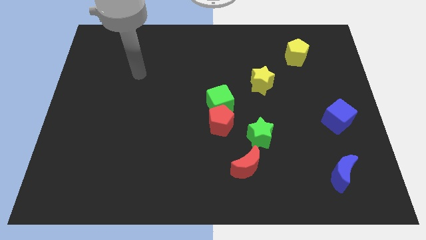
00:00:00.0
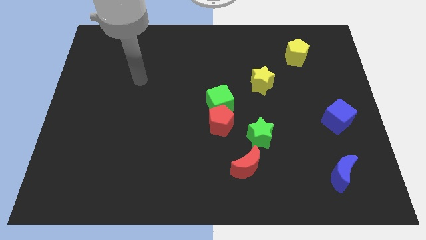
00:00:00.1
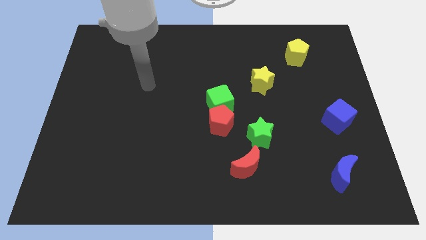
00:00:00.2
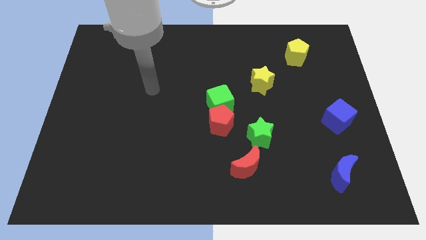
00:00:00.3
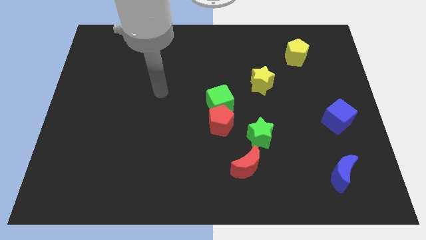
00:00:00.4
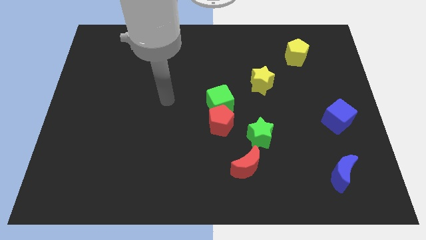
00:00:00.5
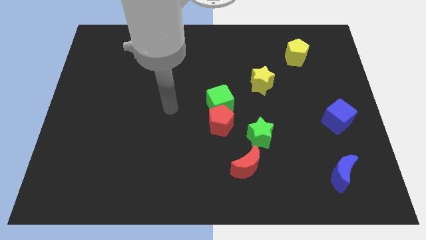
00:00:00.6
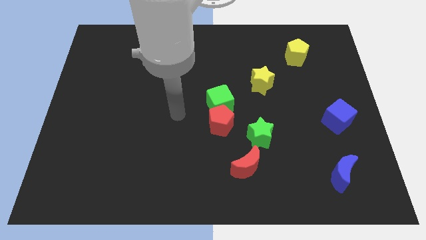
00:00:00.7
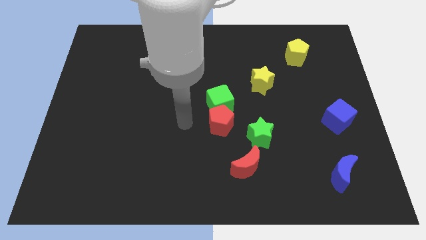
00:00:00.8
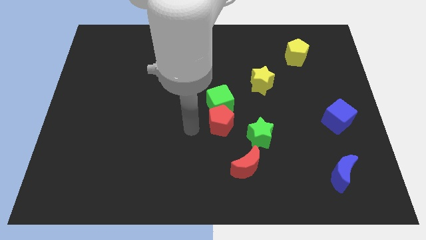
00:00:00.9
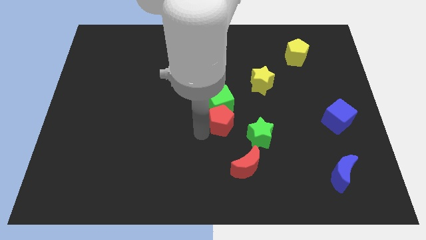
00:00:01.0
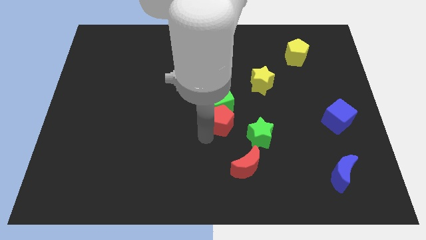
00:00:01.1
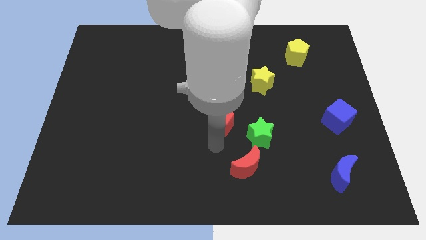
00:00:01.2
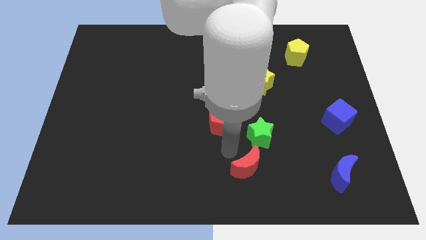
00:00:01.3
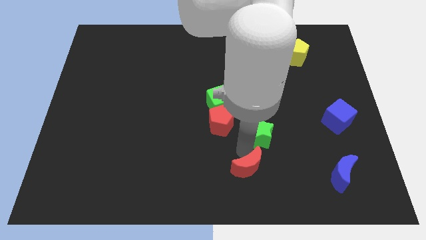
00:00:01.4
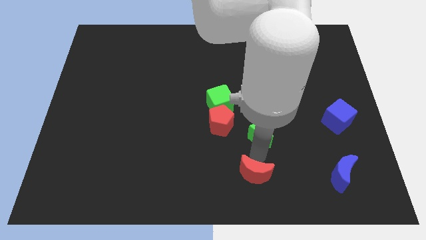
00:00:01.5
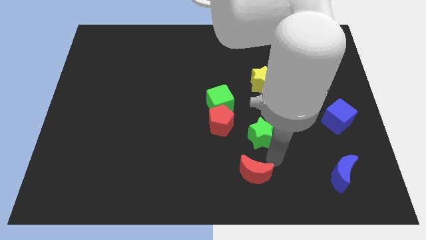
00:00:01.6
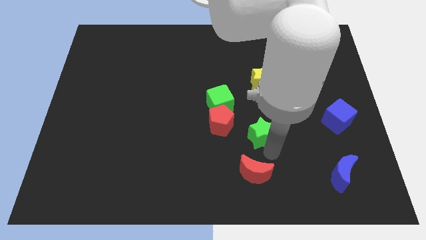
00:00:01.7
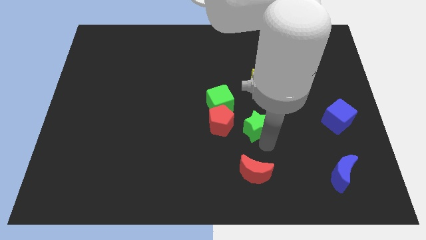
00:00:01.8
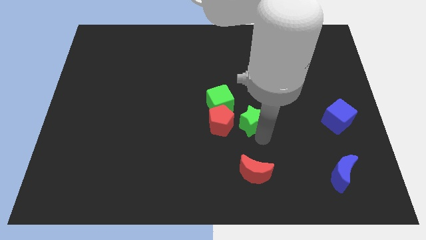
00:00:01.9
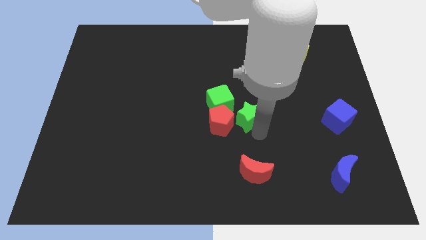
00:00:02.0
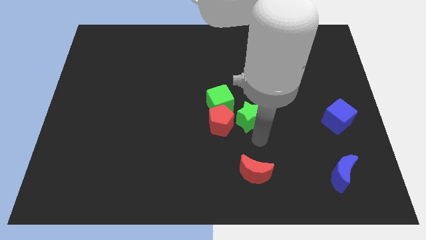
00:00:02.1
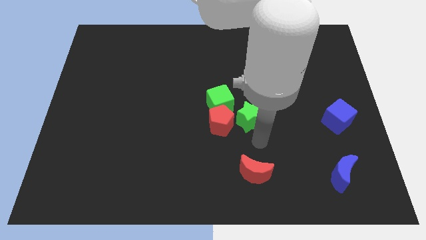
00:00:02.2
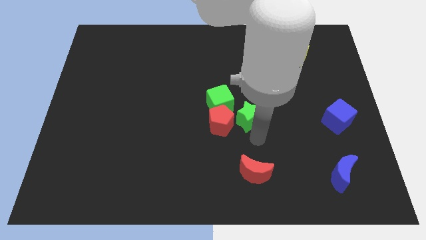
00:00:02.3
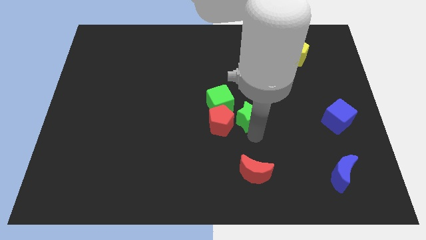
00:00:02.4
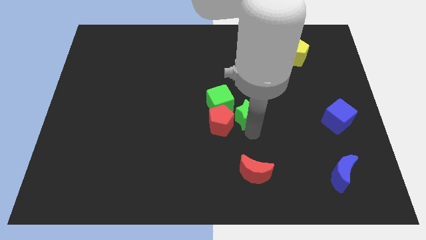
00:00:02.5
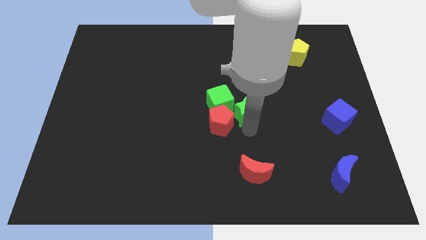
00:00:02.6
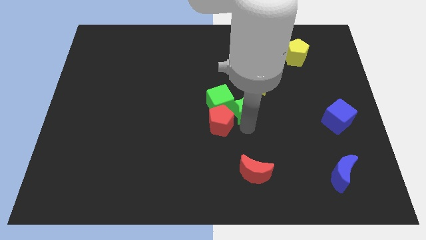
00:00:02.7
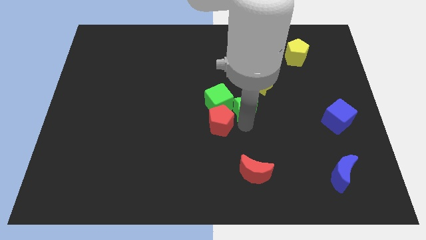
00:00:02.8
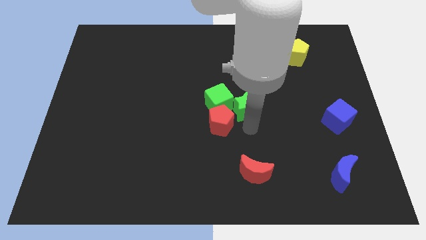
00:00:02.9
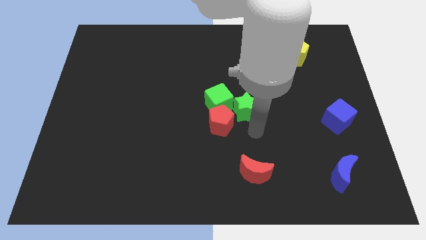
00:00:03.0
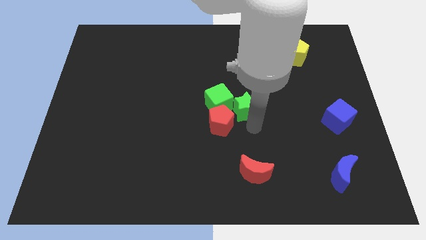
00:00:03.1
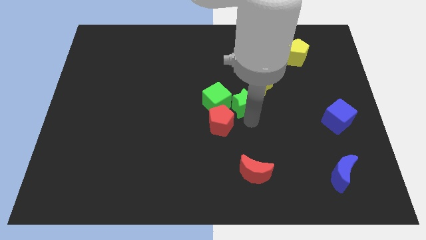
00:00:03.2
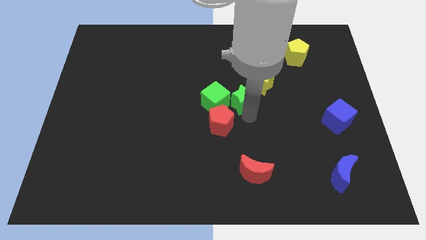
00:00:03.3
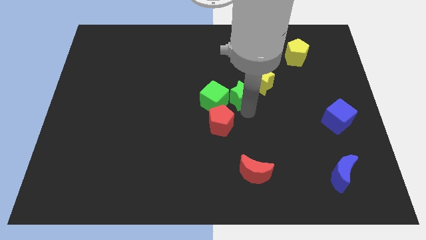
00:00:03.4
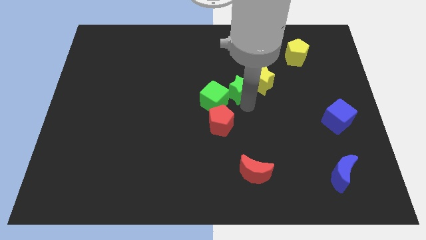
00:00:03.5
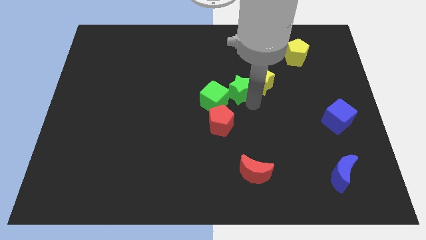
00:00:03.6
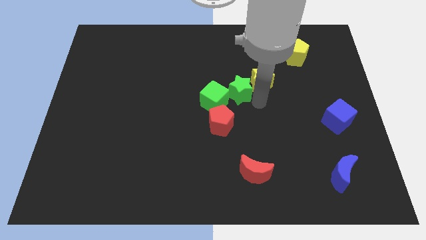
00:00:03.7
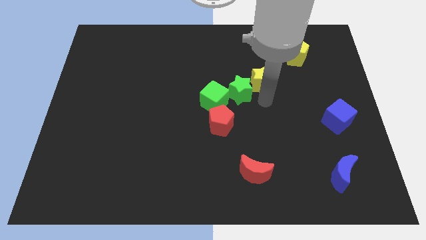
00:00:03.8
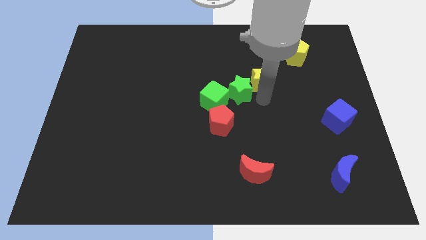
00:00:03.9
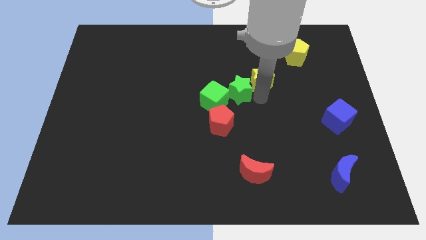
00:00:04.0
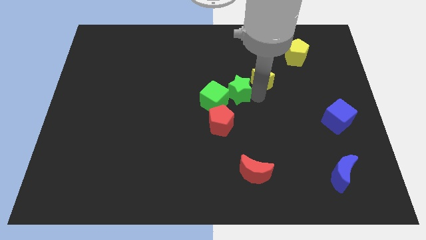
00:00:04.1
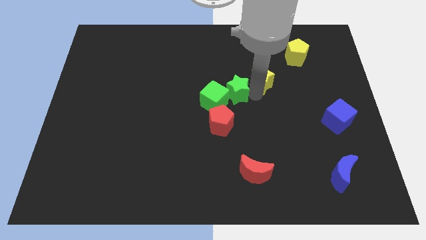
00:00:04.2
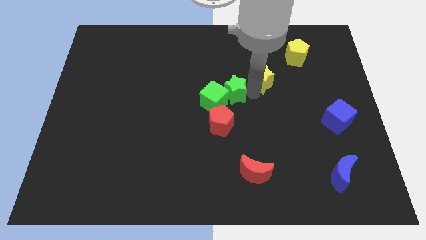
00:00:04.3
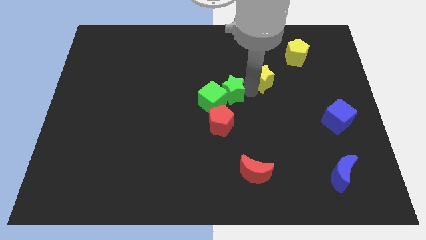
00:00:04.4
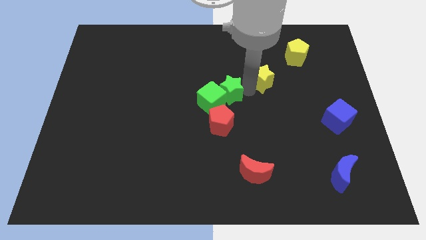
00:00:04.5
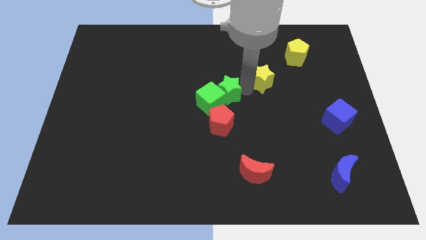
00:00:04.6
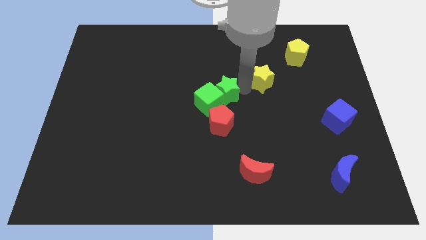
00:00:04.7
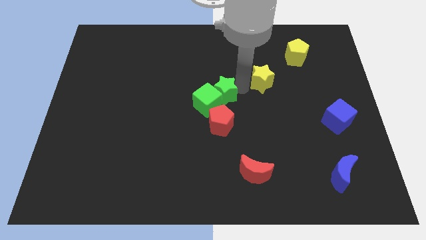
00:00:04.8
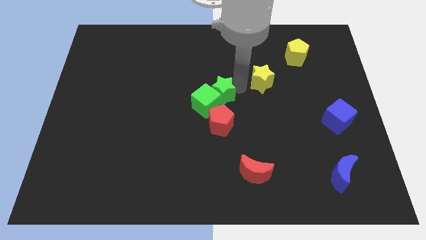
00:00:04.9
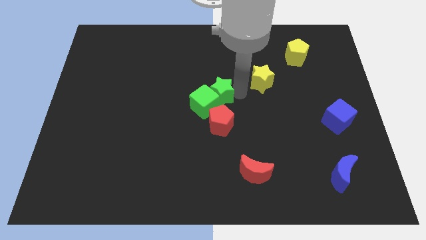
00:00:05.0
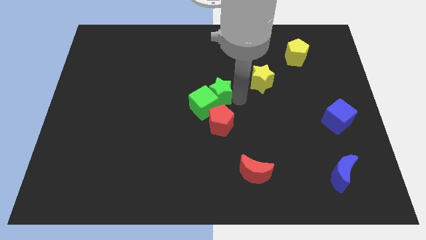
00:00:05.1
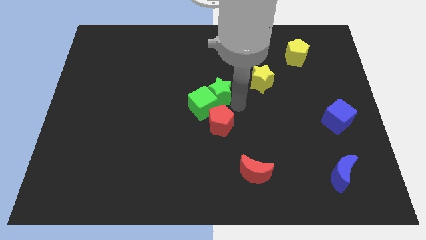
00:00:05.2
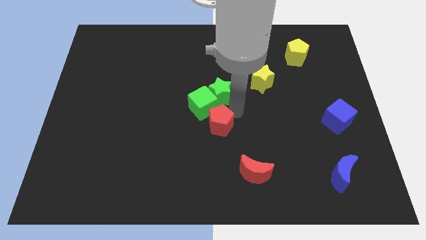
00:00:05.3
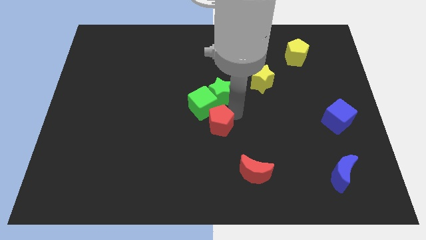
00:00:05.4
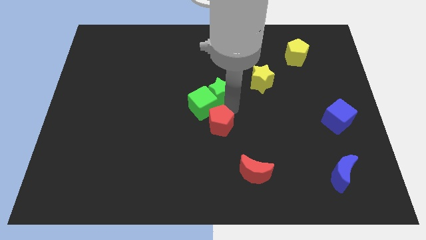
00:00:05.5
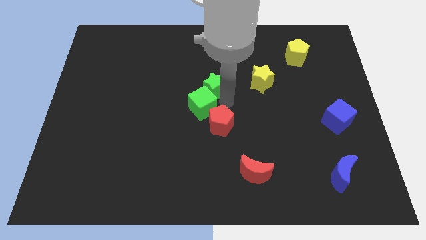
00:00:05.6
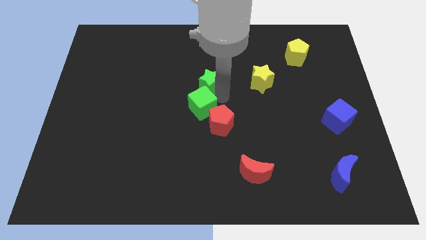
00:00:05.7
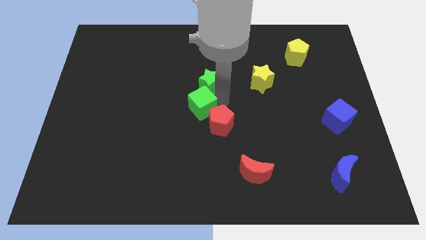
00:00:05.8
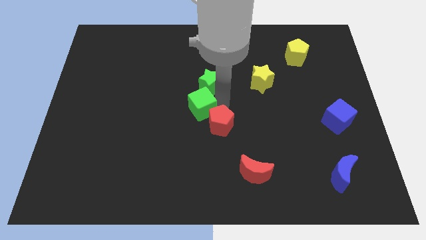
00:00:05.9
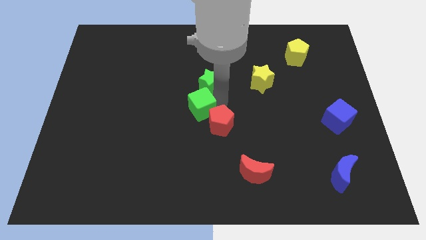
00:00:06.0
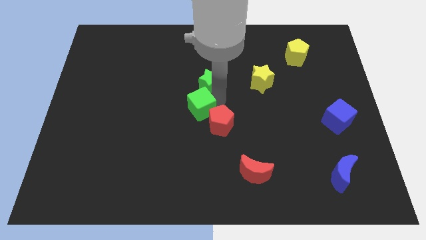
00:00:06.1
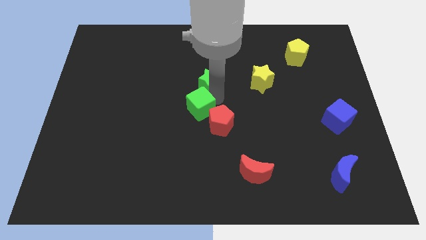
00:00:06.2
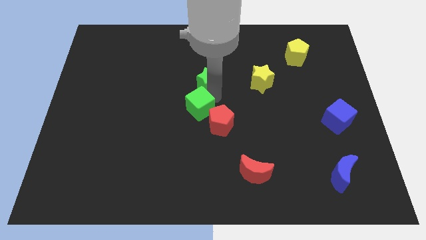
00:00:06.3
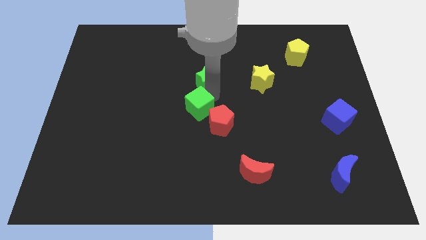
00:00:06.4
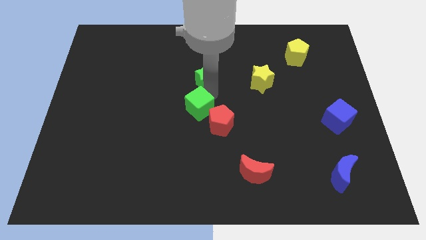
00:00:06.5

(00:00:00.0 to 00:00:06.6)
slide the green star upwards and left

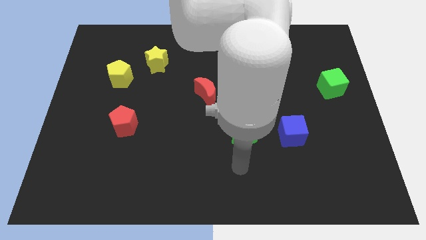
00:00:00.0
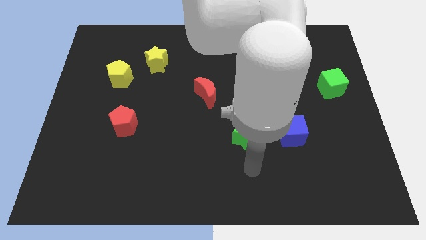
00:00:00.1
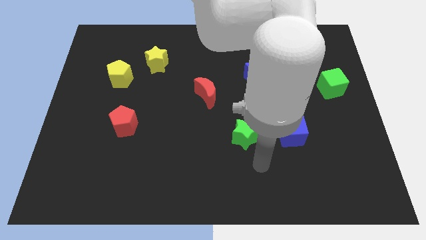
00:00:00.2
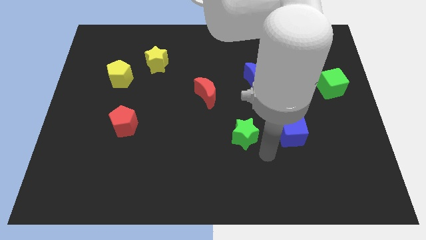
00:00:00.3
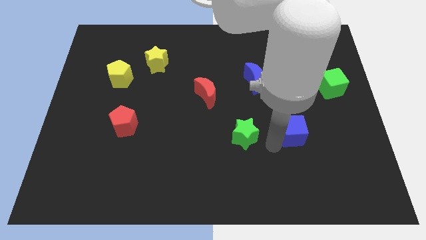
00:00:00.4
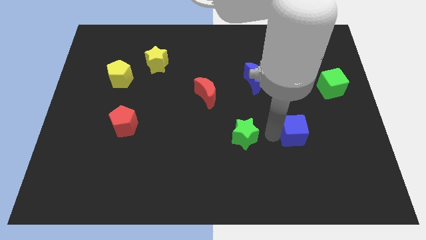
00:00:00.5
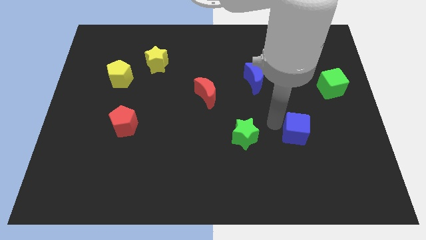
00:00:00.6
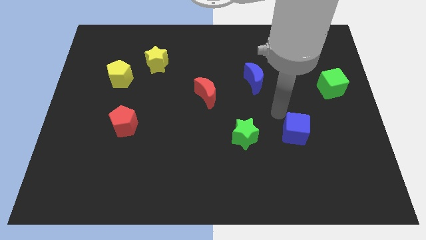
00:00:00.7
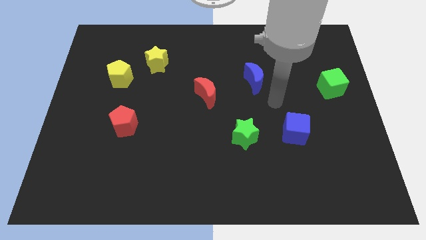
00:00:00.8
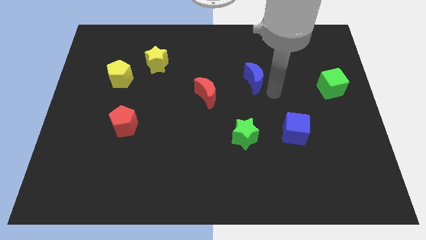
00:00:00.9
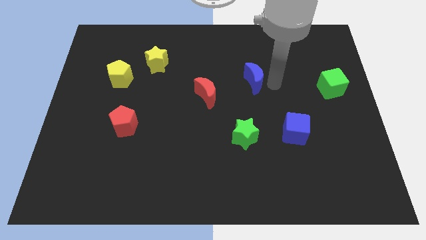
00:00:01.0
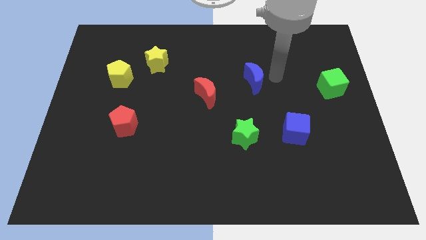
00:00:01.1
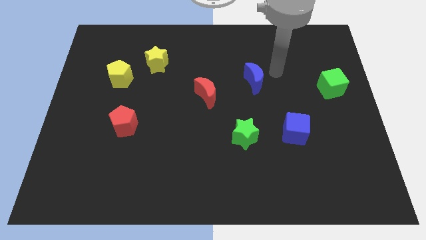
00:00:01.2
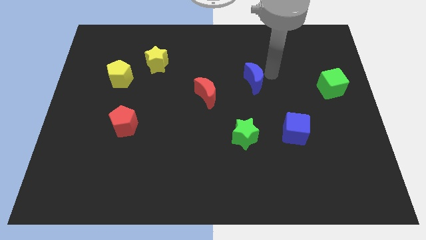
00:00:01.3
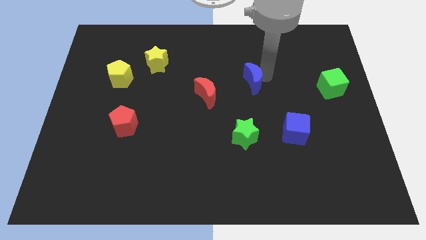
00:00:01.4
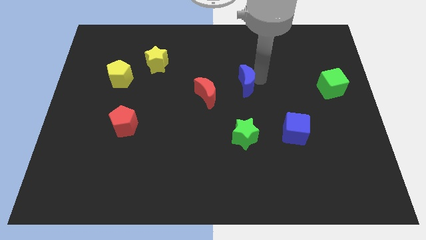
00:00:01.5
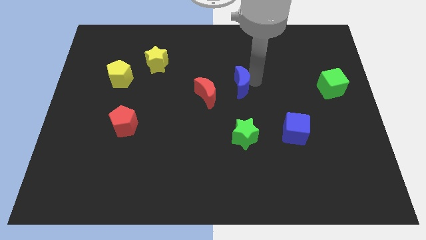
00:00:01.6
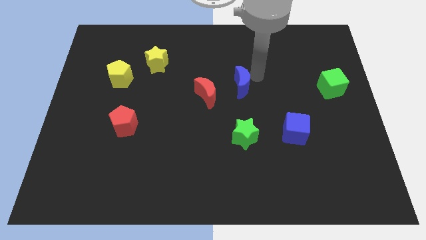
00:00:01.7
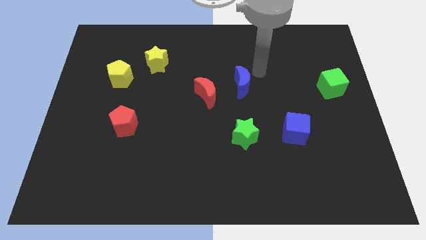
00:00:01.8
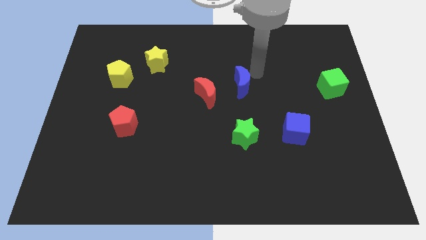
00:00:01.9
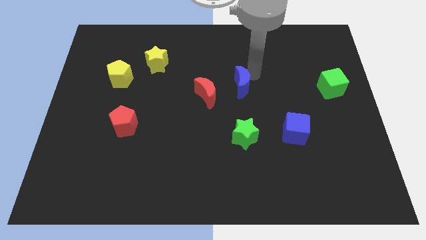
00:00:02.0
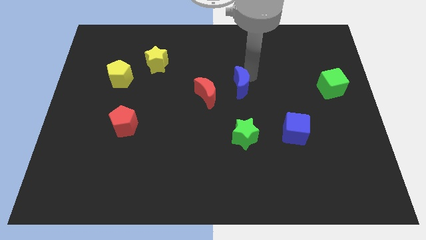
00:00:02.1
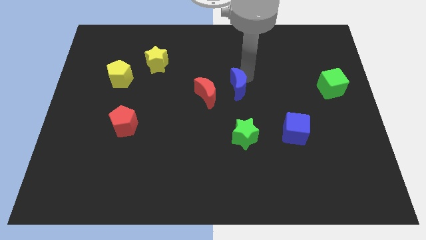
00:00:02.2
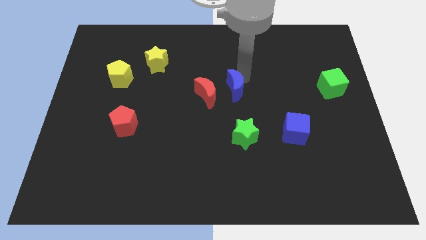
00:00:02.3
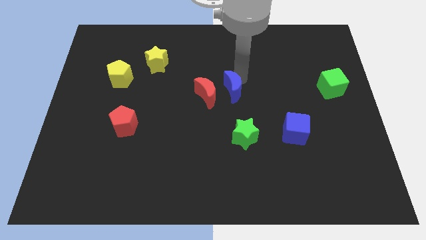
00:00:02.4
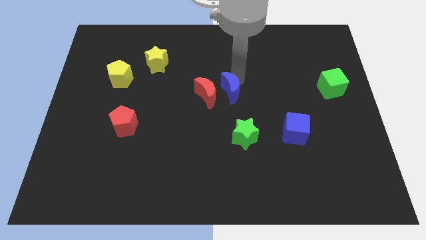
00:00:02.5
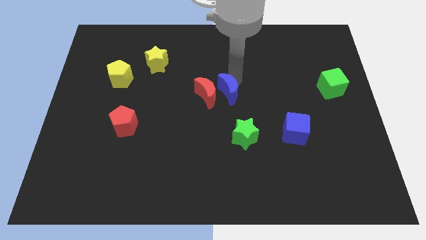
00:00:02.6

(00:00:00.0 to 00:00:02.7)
slightly move the blue moon downwards and to the left diagonally
